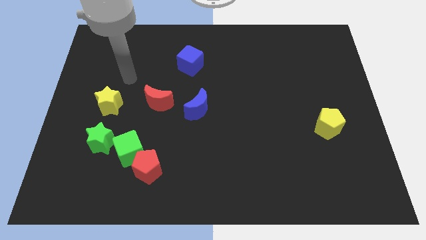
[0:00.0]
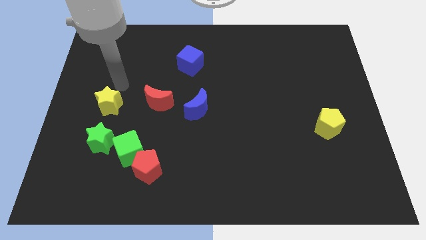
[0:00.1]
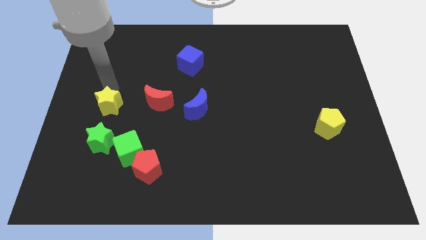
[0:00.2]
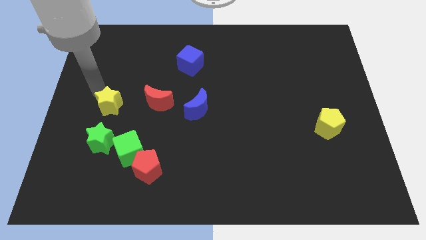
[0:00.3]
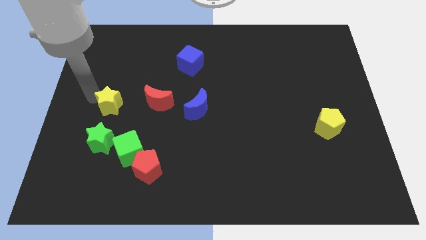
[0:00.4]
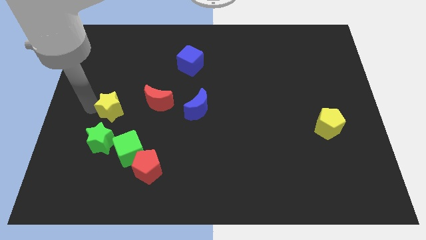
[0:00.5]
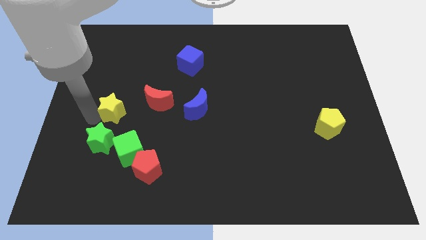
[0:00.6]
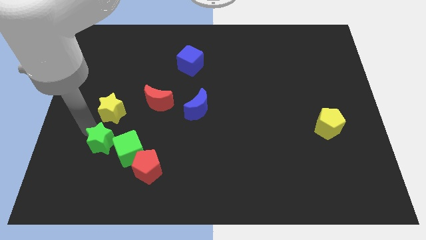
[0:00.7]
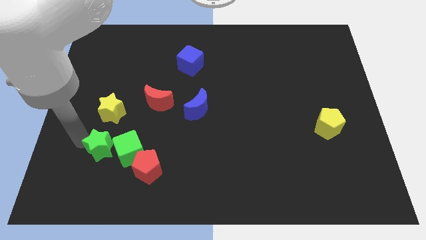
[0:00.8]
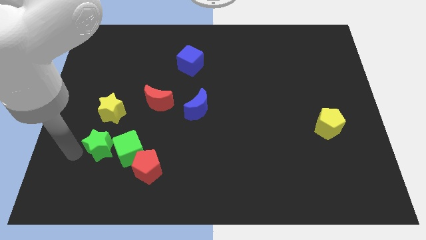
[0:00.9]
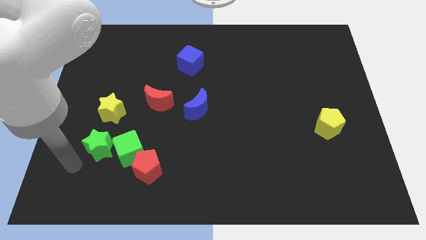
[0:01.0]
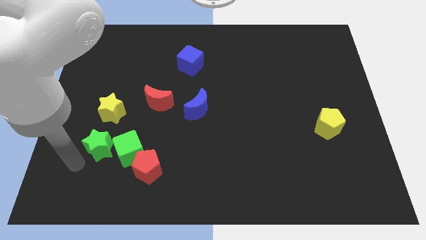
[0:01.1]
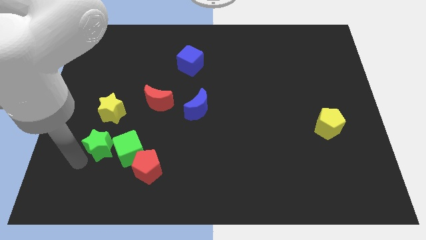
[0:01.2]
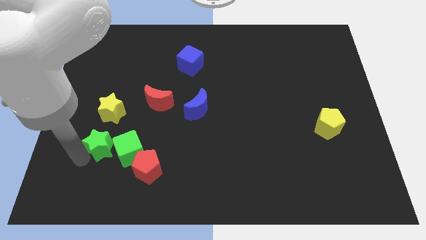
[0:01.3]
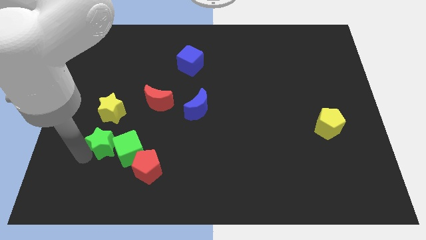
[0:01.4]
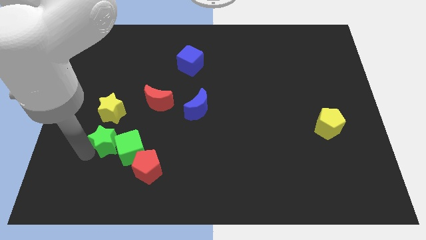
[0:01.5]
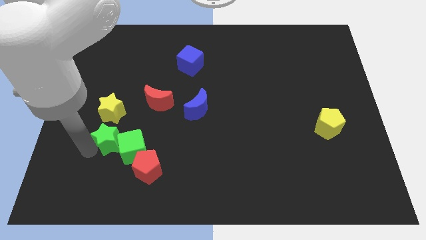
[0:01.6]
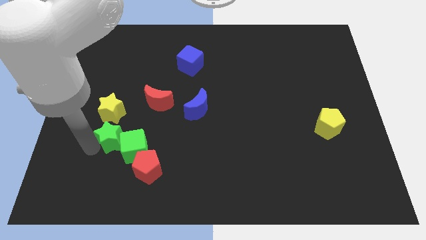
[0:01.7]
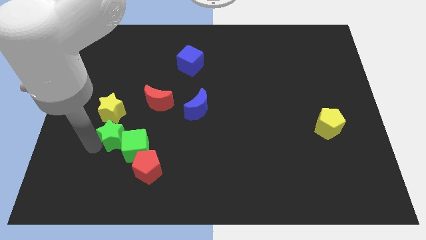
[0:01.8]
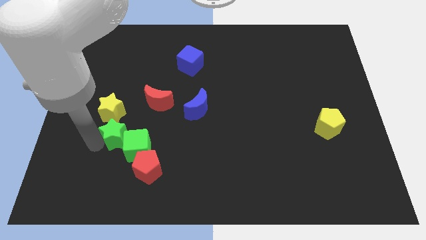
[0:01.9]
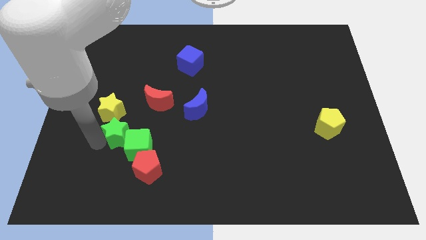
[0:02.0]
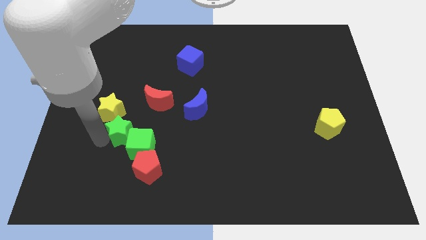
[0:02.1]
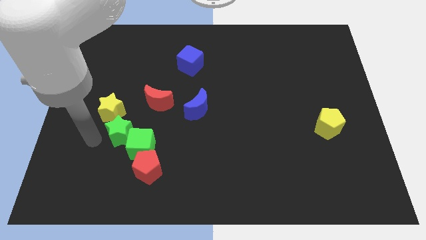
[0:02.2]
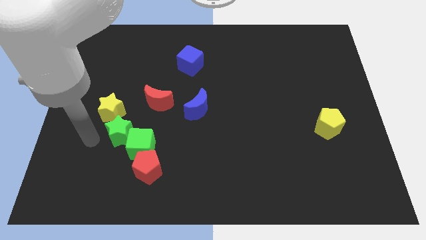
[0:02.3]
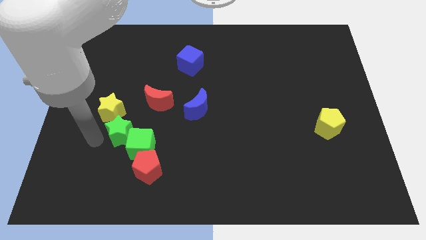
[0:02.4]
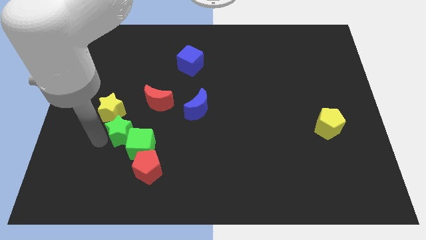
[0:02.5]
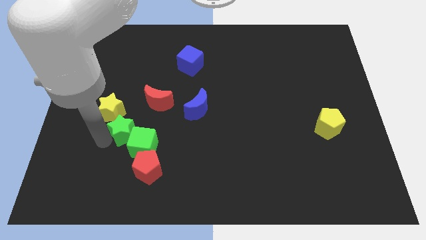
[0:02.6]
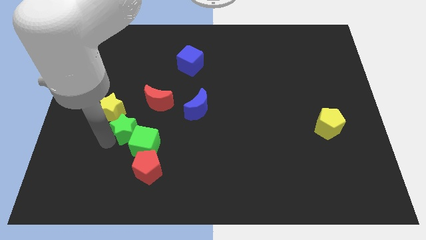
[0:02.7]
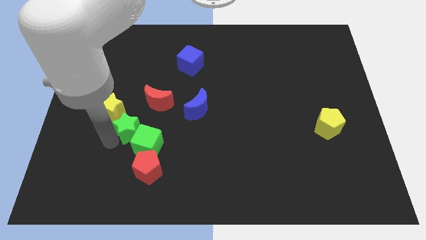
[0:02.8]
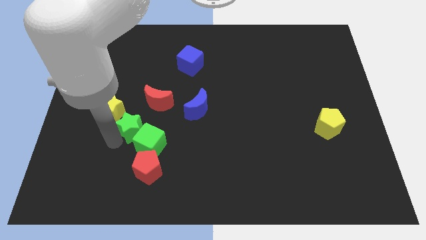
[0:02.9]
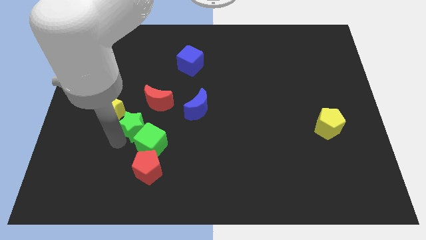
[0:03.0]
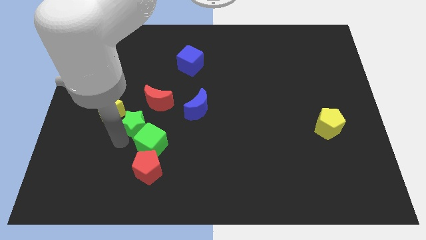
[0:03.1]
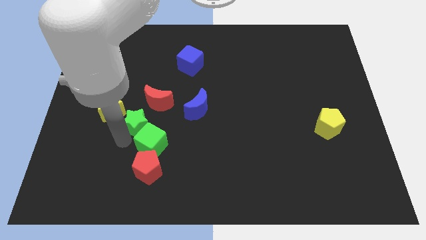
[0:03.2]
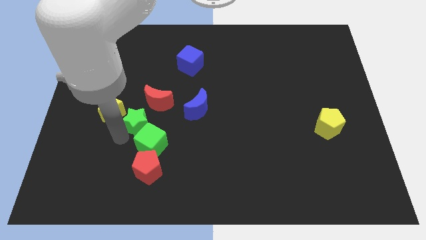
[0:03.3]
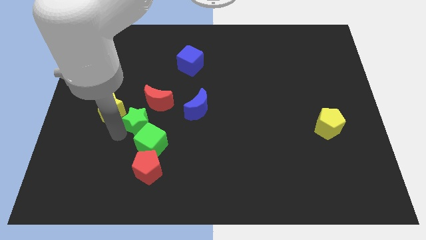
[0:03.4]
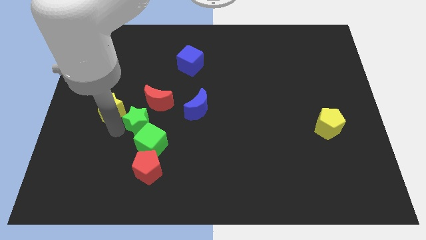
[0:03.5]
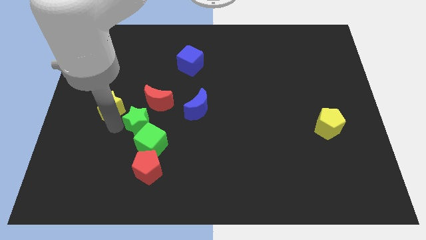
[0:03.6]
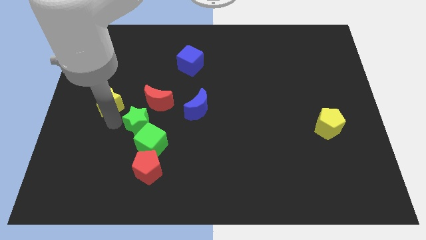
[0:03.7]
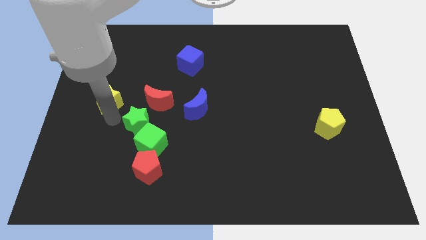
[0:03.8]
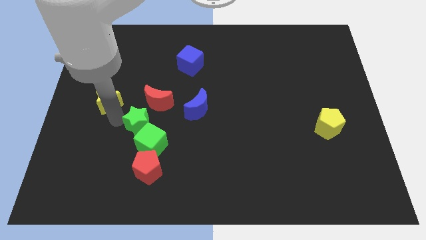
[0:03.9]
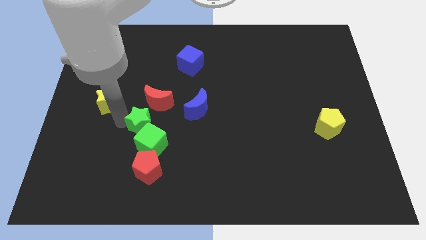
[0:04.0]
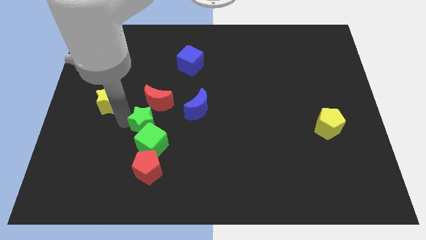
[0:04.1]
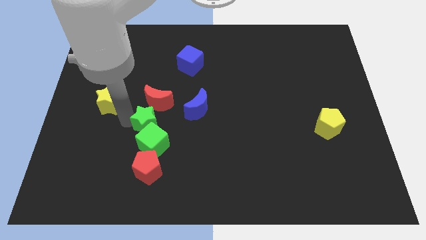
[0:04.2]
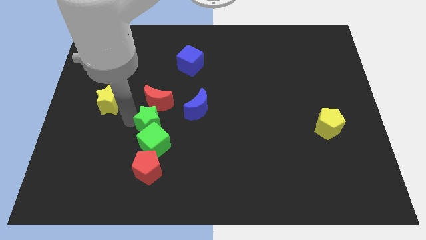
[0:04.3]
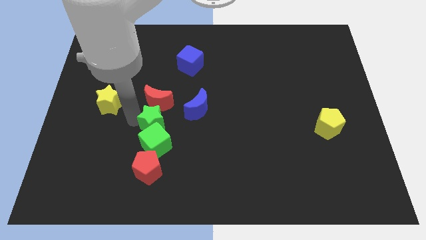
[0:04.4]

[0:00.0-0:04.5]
slide the green star to the bottom left side of the blue moon

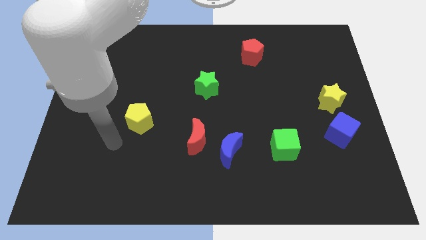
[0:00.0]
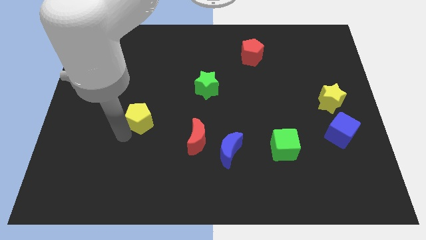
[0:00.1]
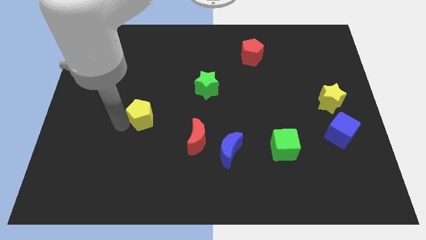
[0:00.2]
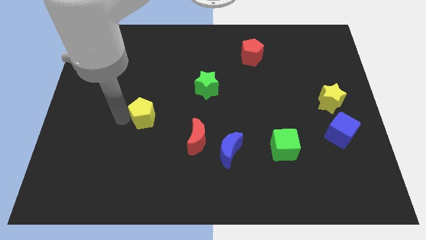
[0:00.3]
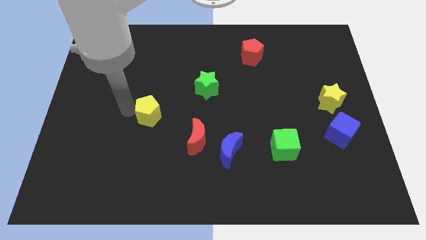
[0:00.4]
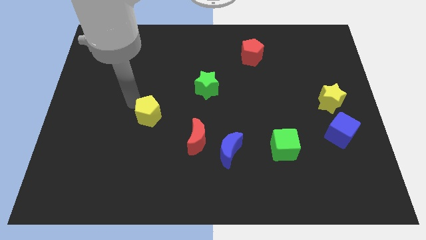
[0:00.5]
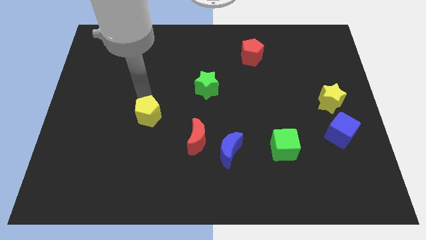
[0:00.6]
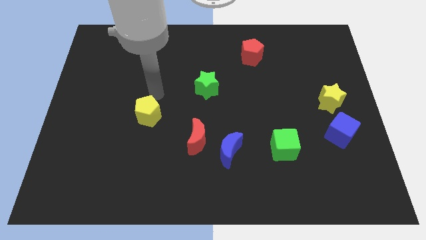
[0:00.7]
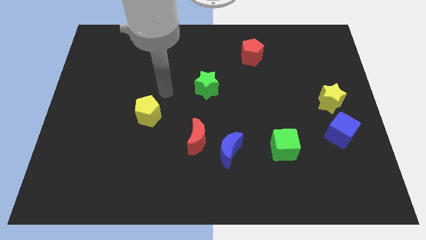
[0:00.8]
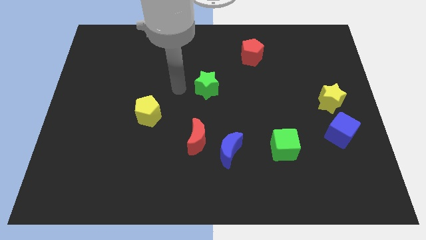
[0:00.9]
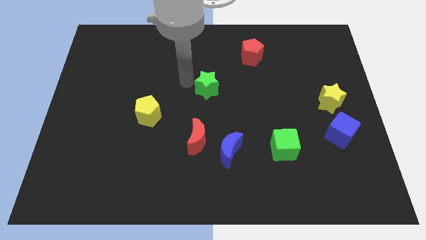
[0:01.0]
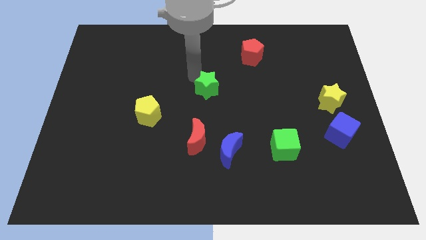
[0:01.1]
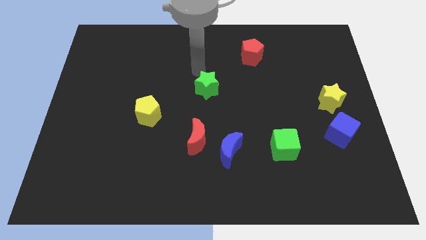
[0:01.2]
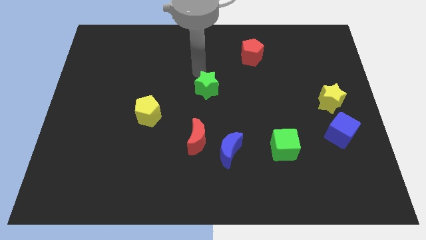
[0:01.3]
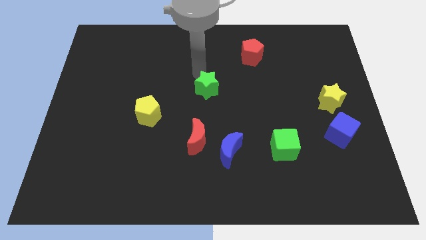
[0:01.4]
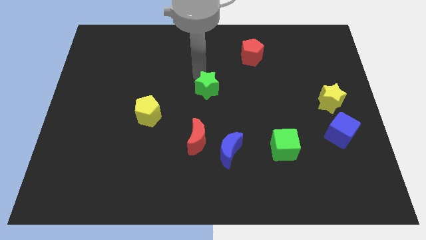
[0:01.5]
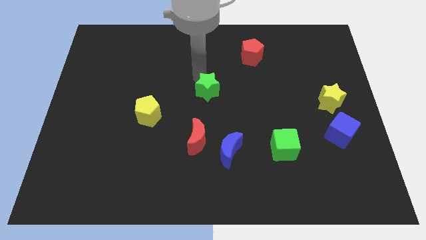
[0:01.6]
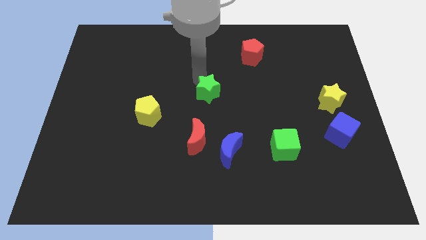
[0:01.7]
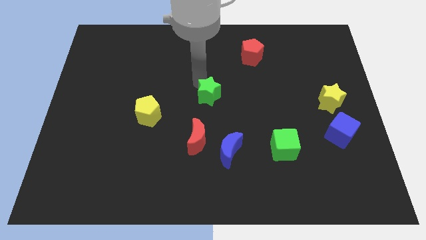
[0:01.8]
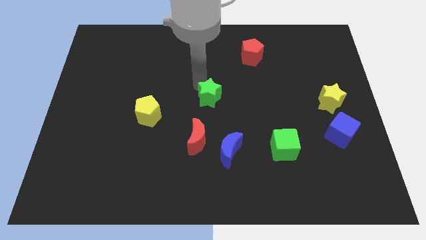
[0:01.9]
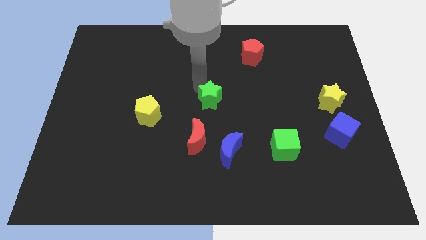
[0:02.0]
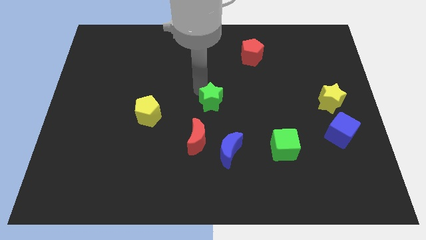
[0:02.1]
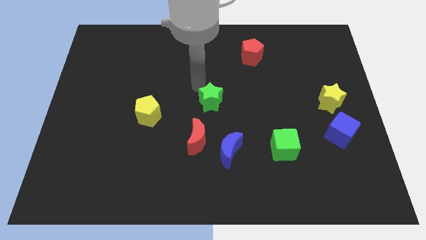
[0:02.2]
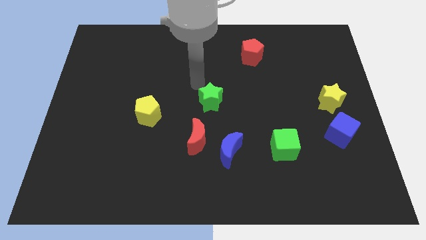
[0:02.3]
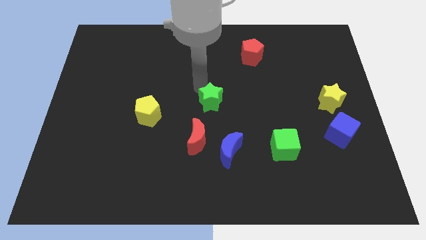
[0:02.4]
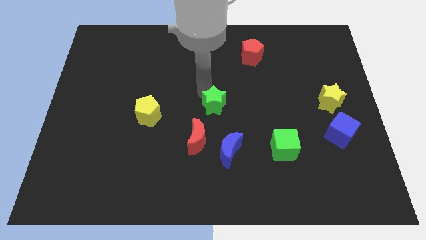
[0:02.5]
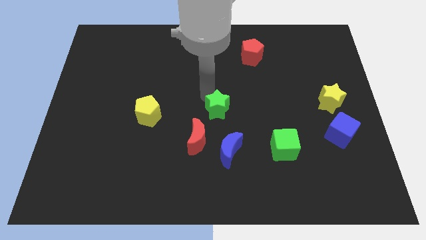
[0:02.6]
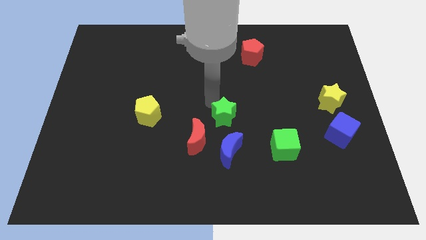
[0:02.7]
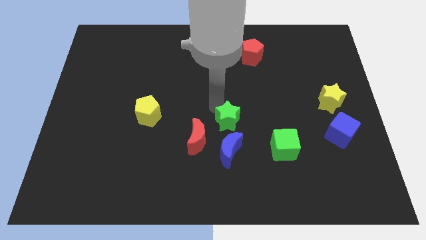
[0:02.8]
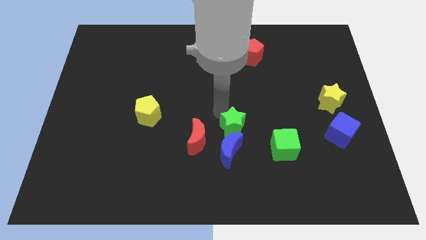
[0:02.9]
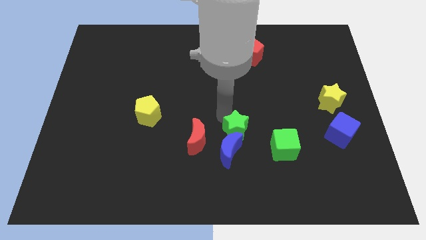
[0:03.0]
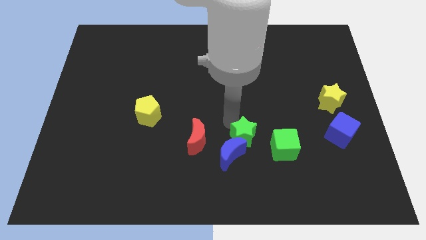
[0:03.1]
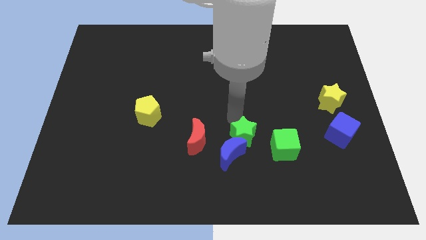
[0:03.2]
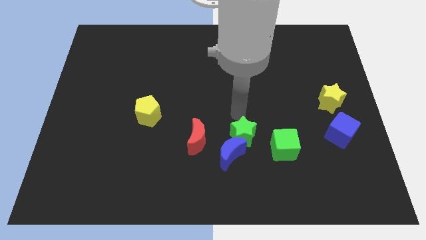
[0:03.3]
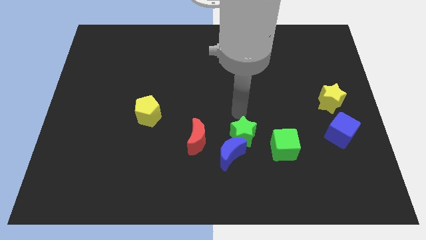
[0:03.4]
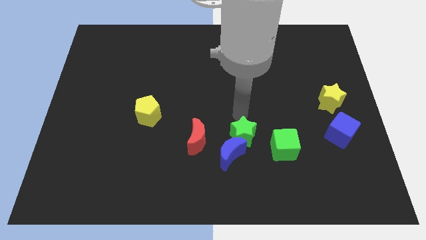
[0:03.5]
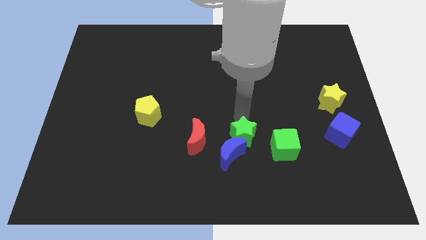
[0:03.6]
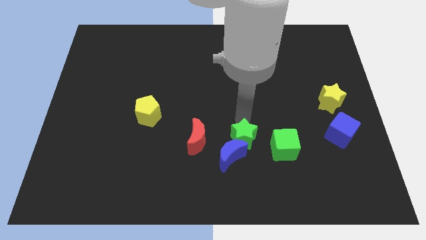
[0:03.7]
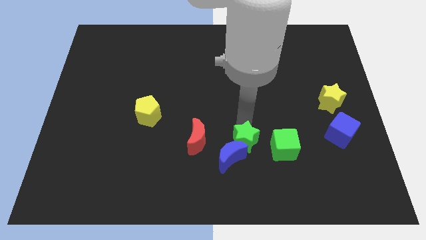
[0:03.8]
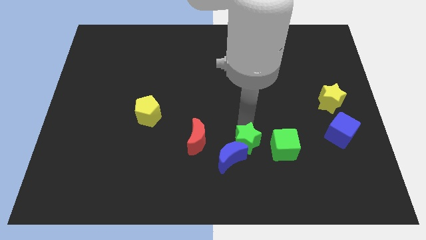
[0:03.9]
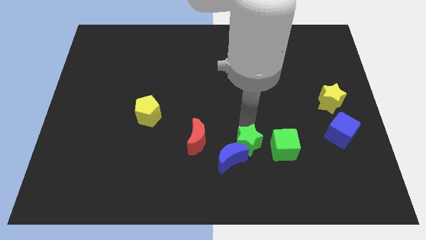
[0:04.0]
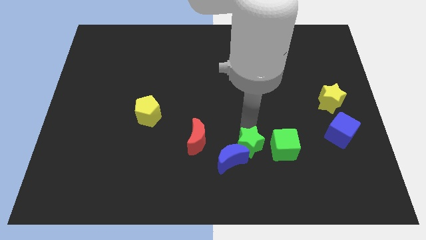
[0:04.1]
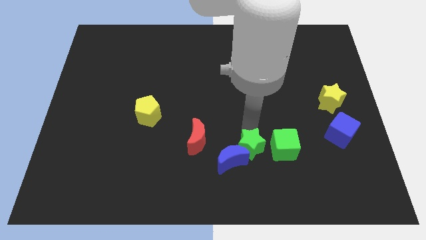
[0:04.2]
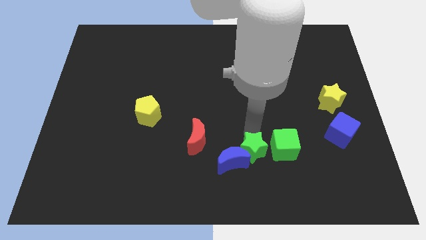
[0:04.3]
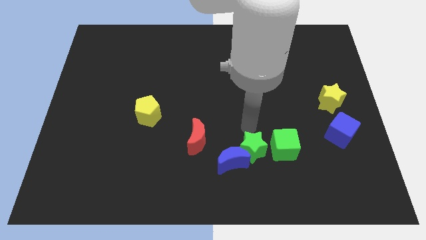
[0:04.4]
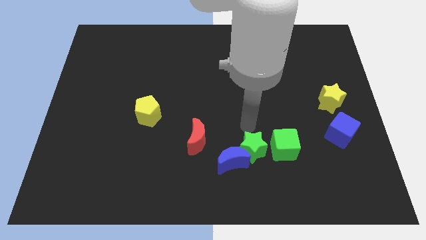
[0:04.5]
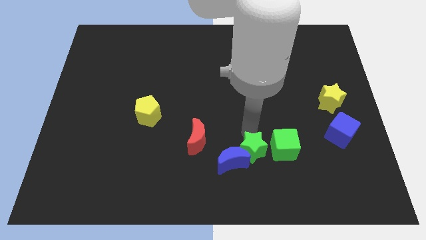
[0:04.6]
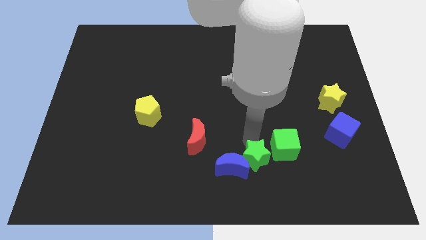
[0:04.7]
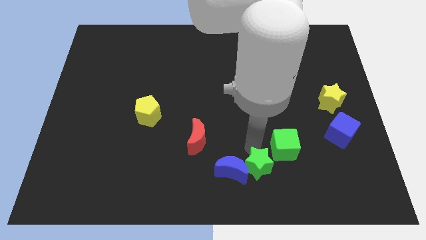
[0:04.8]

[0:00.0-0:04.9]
move the green star diagonally down and to the right of the blue moon
